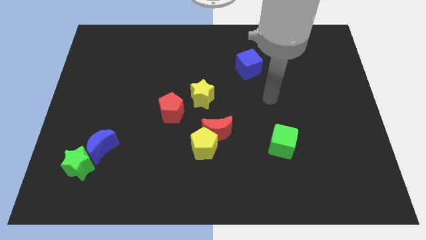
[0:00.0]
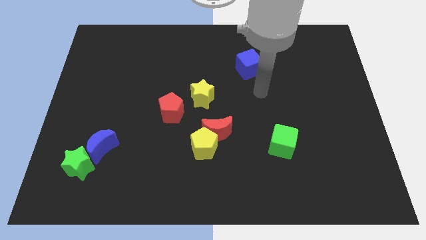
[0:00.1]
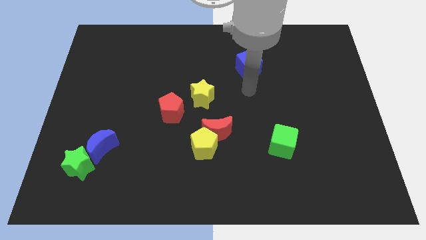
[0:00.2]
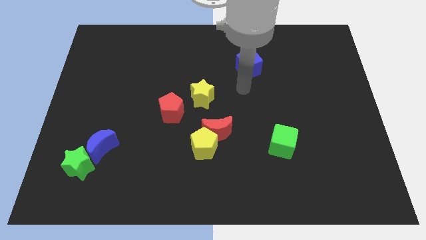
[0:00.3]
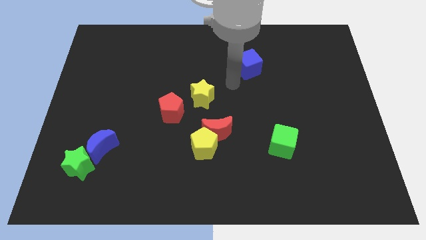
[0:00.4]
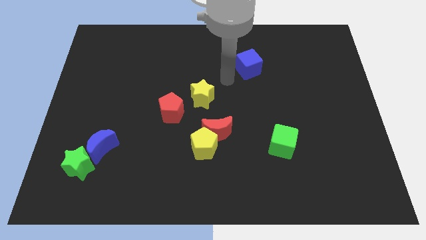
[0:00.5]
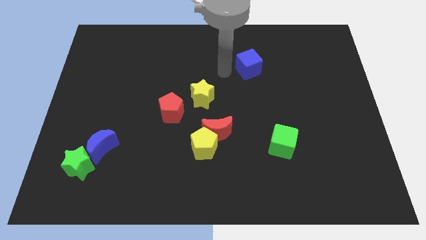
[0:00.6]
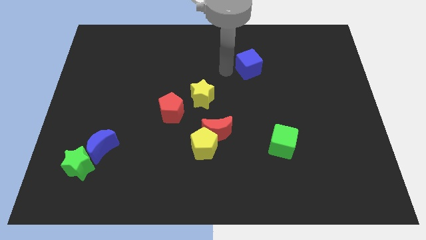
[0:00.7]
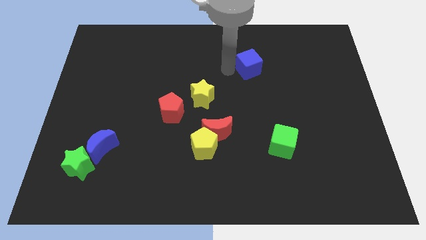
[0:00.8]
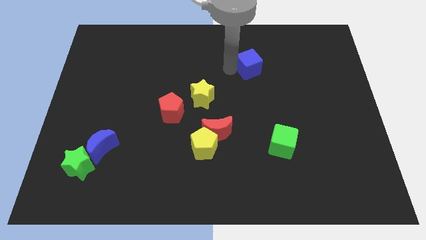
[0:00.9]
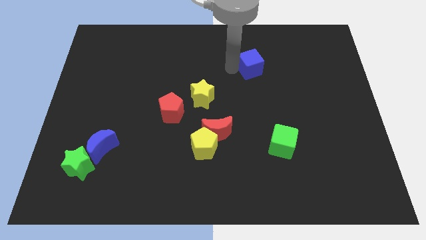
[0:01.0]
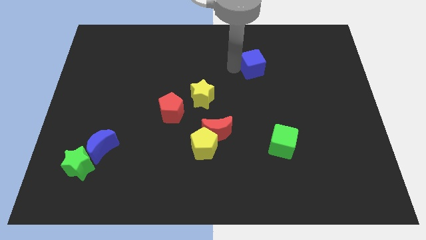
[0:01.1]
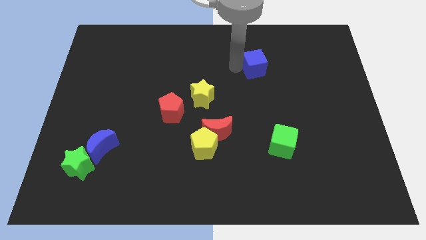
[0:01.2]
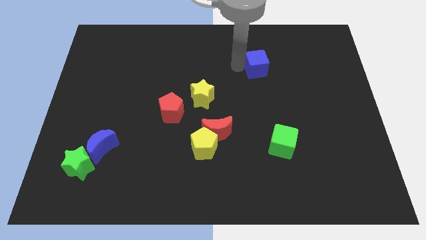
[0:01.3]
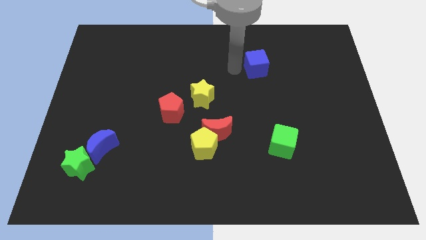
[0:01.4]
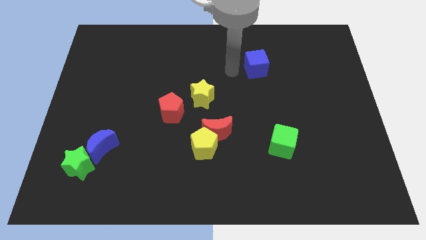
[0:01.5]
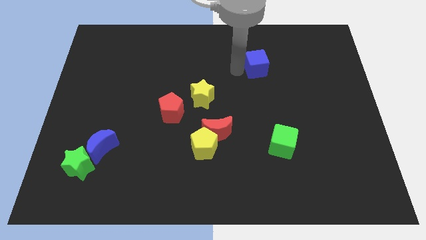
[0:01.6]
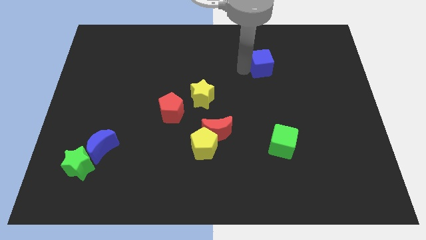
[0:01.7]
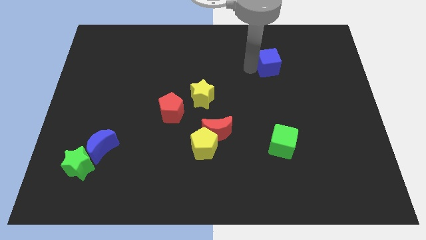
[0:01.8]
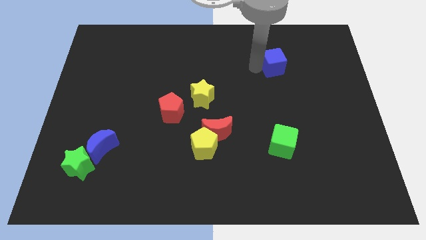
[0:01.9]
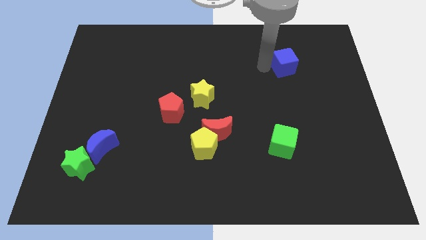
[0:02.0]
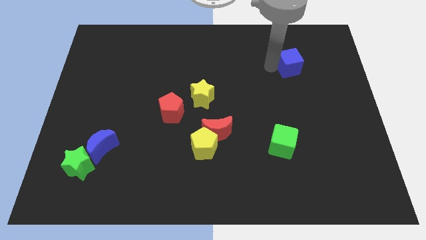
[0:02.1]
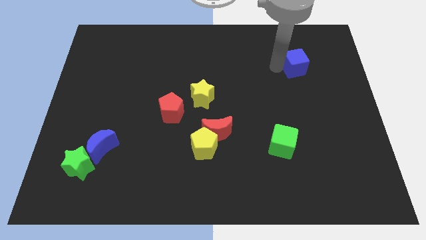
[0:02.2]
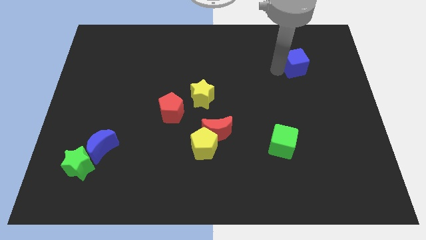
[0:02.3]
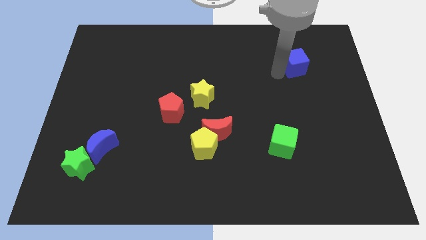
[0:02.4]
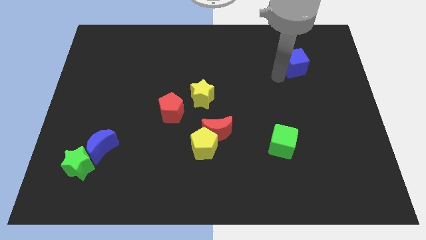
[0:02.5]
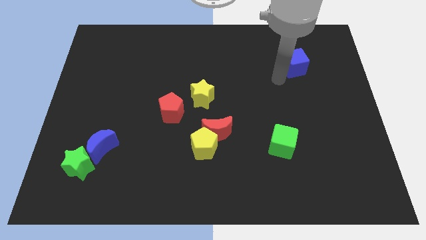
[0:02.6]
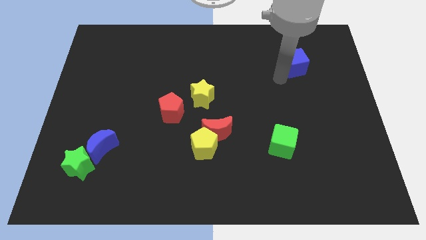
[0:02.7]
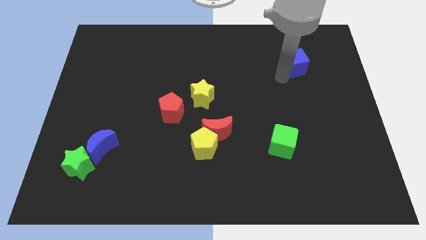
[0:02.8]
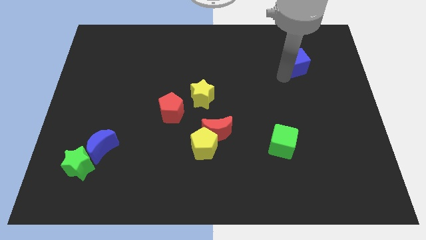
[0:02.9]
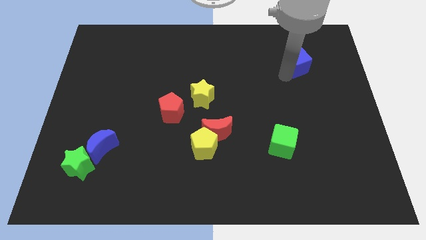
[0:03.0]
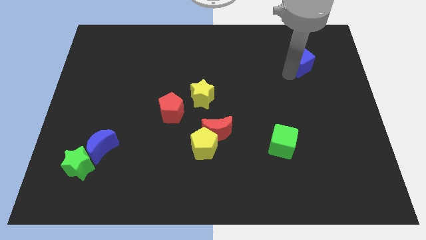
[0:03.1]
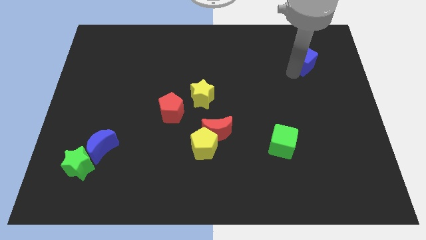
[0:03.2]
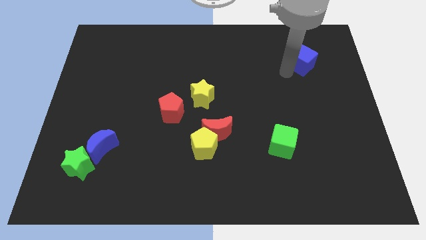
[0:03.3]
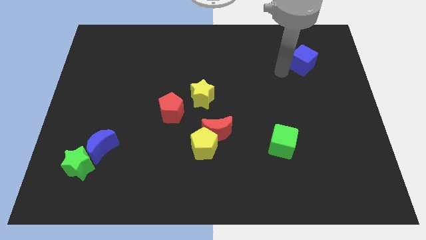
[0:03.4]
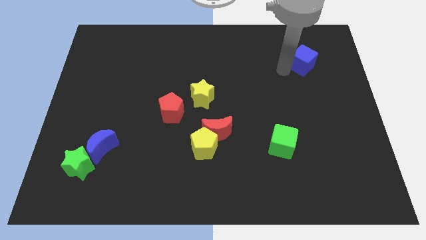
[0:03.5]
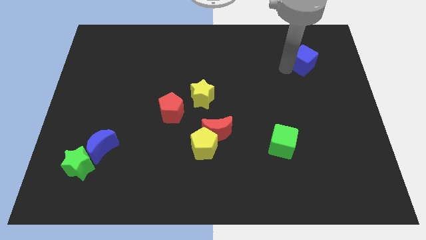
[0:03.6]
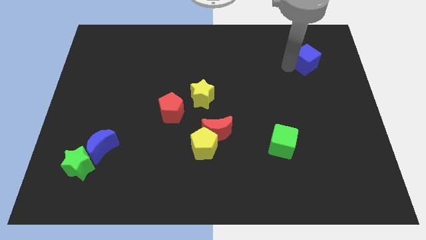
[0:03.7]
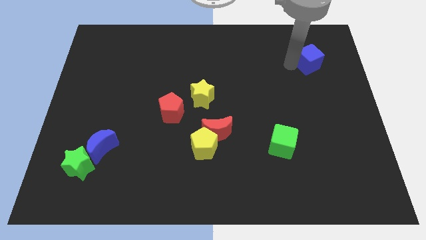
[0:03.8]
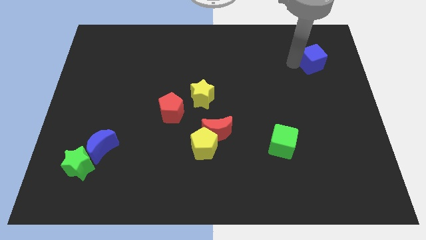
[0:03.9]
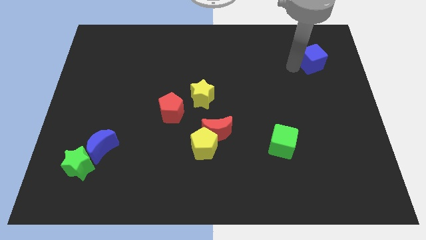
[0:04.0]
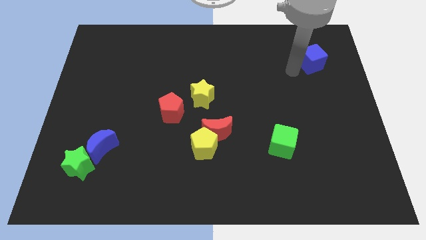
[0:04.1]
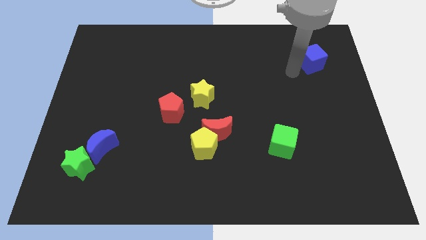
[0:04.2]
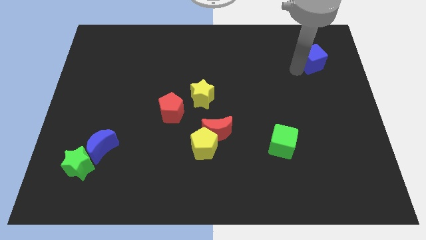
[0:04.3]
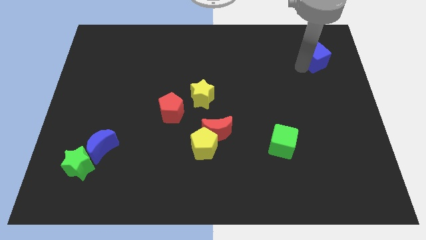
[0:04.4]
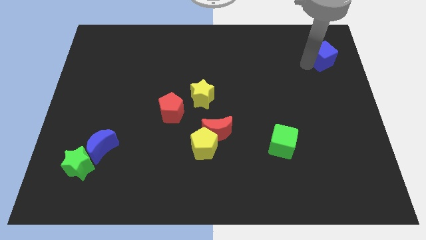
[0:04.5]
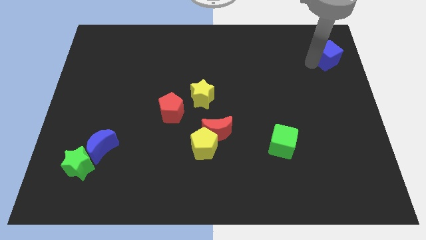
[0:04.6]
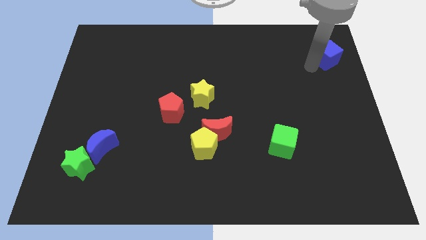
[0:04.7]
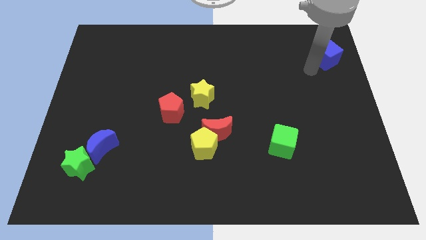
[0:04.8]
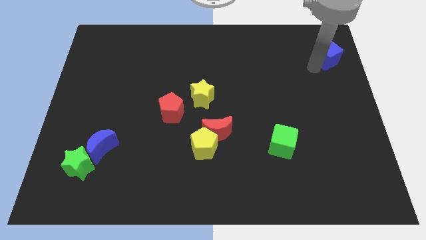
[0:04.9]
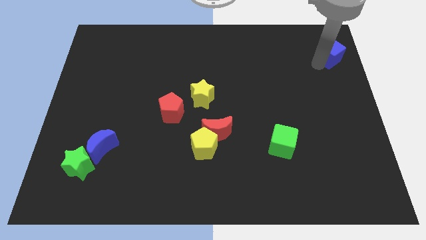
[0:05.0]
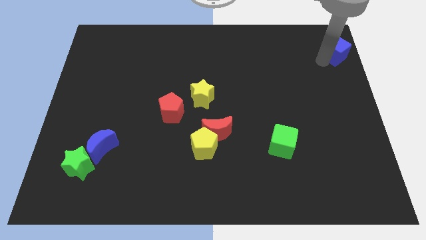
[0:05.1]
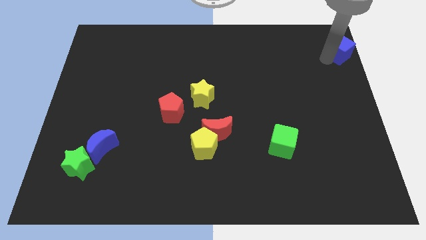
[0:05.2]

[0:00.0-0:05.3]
slide the blue cube to the top right

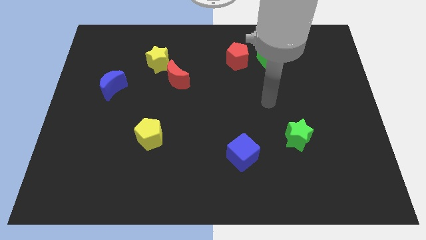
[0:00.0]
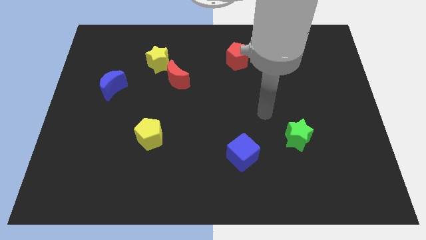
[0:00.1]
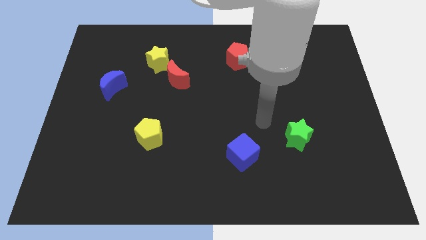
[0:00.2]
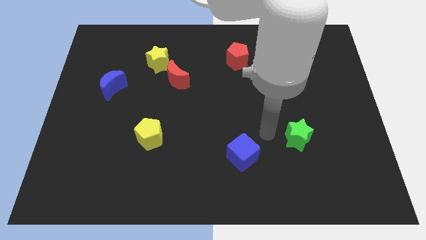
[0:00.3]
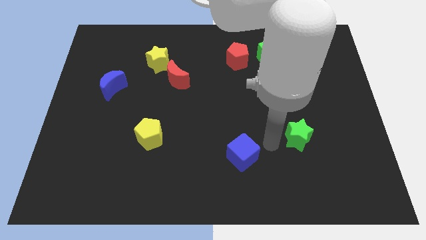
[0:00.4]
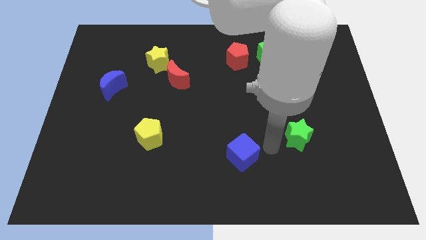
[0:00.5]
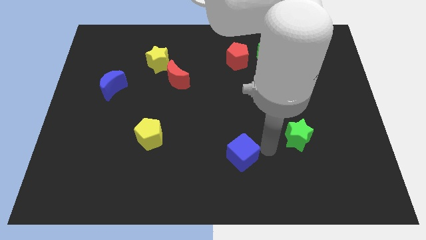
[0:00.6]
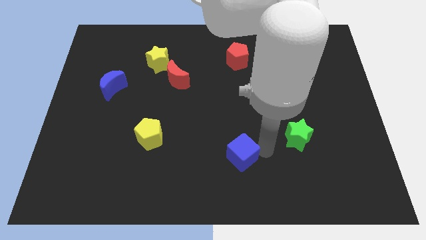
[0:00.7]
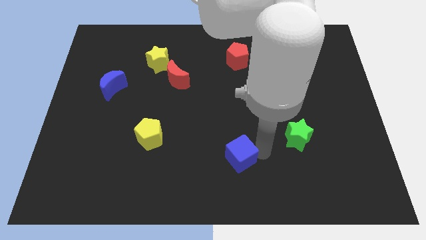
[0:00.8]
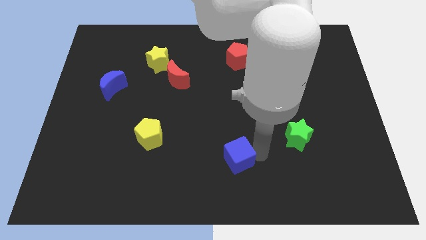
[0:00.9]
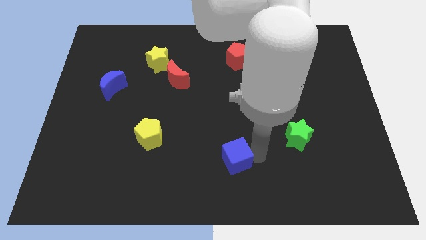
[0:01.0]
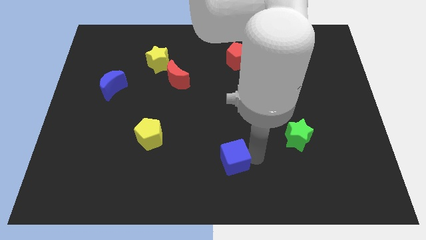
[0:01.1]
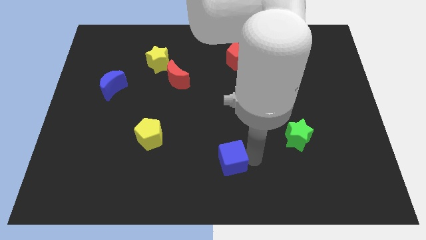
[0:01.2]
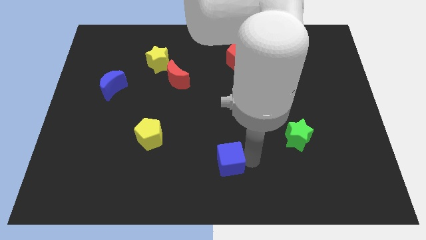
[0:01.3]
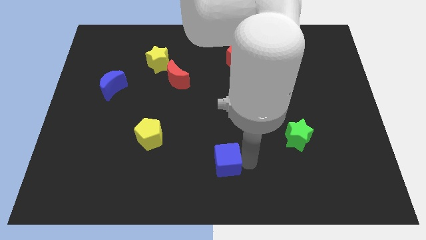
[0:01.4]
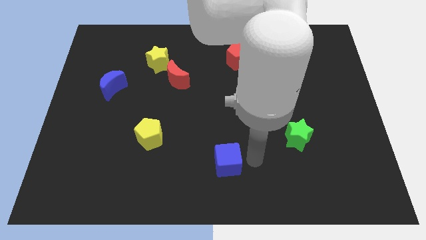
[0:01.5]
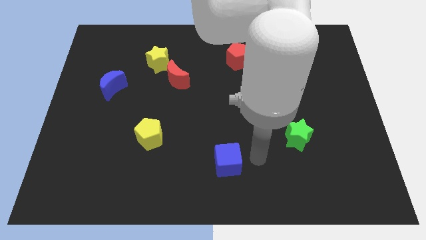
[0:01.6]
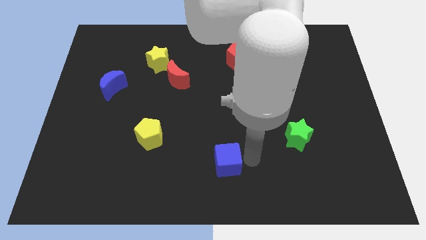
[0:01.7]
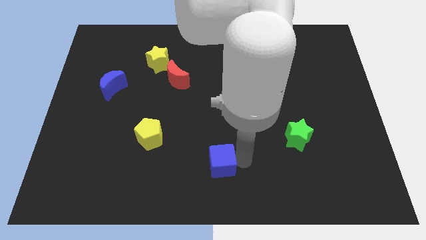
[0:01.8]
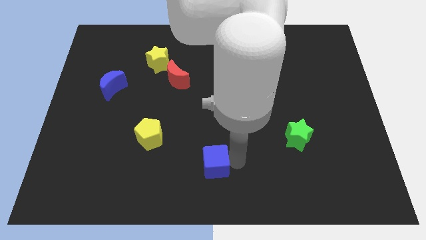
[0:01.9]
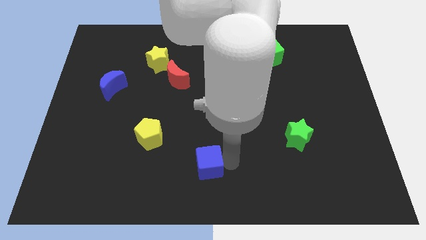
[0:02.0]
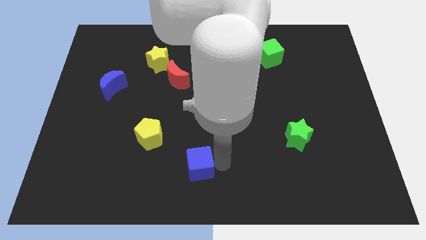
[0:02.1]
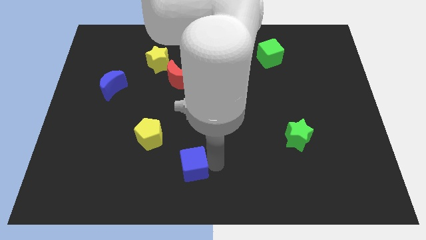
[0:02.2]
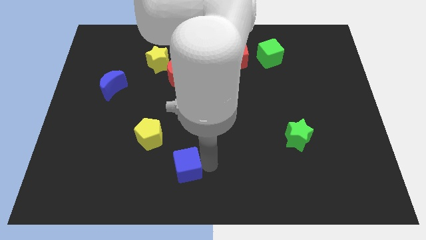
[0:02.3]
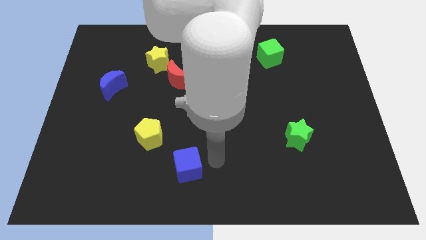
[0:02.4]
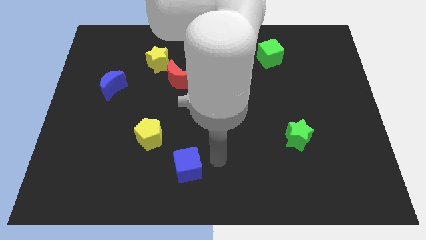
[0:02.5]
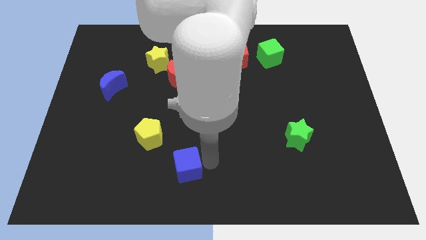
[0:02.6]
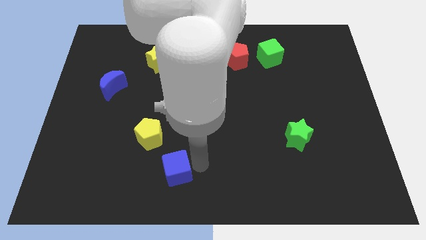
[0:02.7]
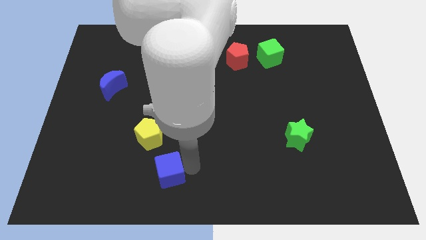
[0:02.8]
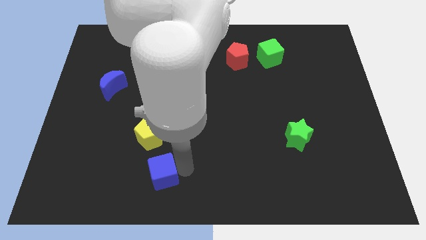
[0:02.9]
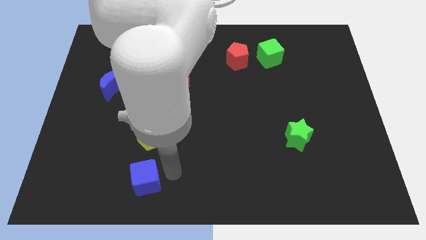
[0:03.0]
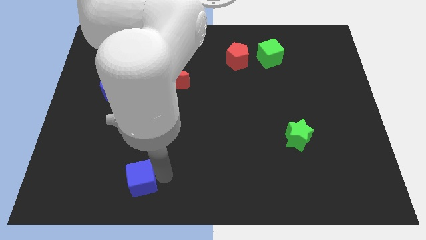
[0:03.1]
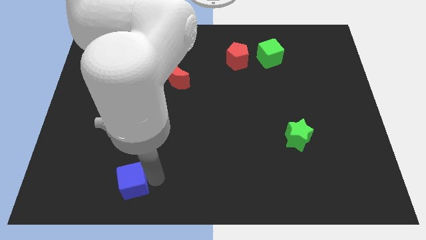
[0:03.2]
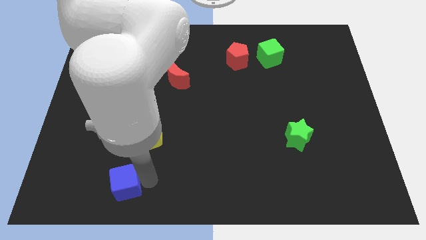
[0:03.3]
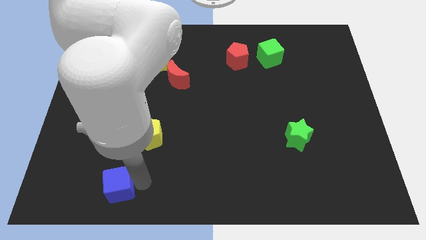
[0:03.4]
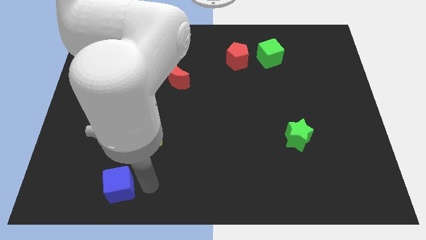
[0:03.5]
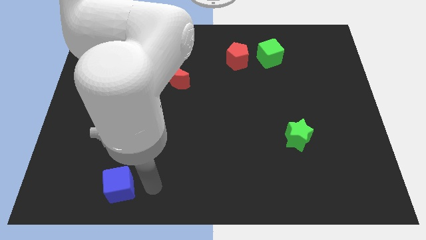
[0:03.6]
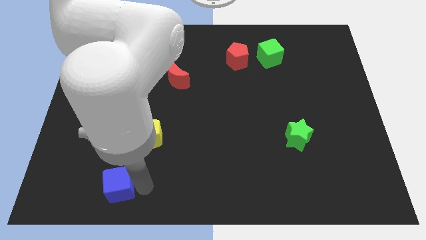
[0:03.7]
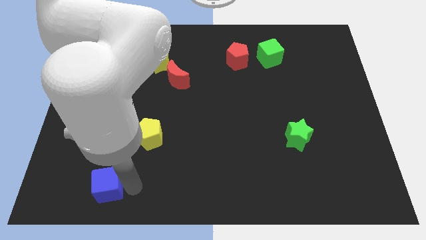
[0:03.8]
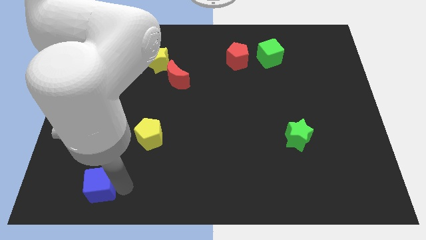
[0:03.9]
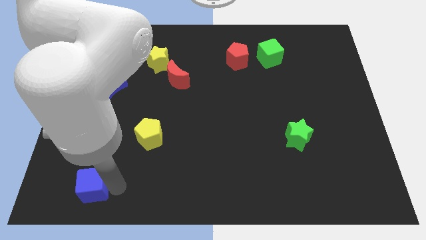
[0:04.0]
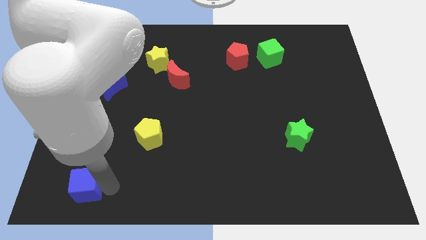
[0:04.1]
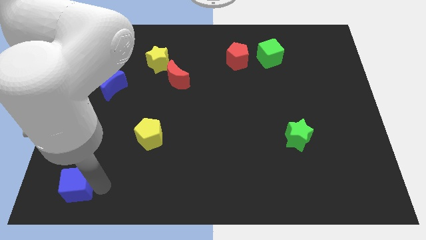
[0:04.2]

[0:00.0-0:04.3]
move the blue cube to the bottom left
